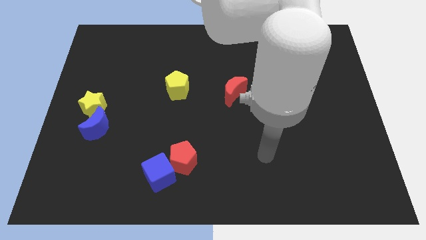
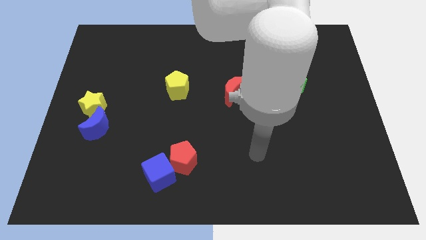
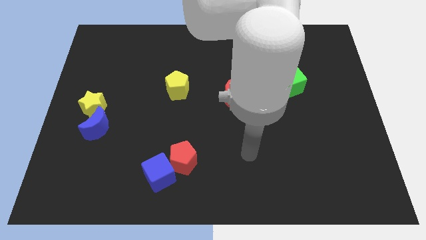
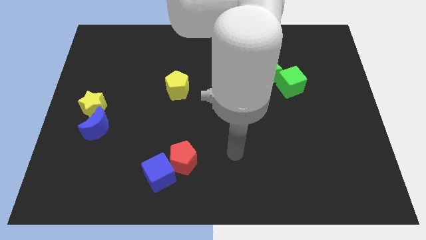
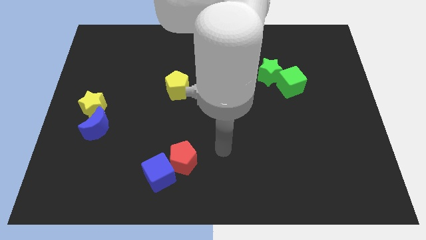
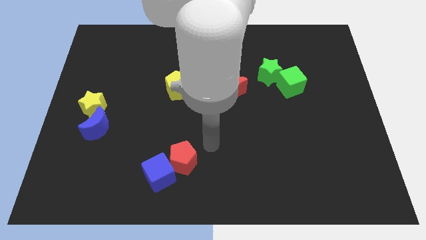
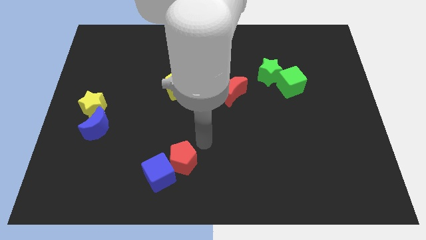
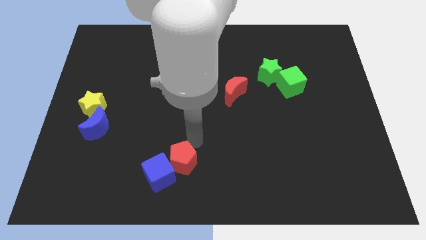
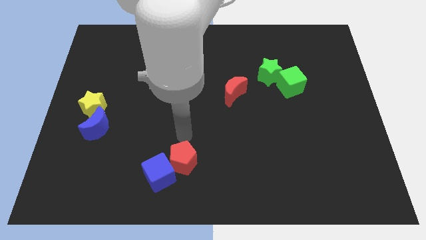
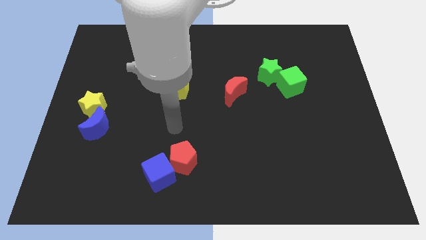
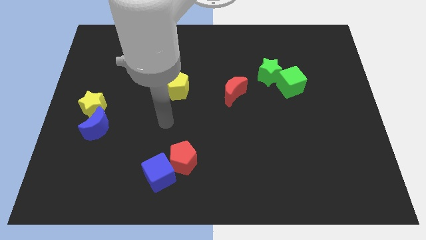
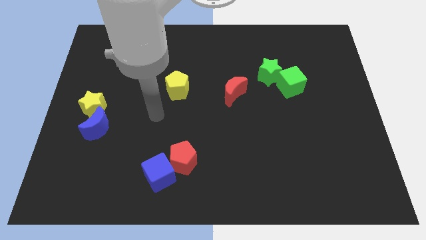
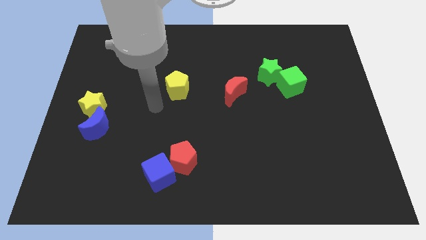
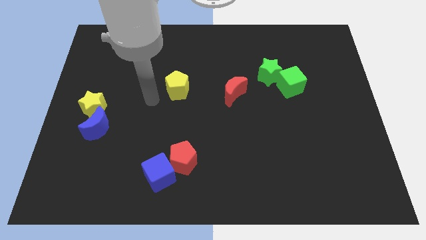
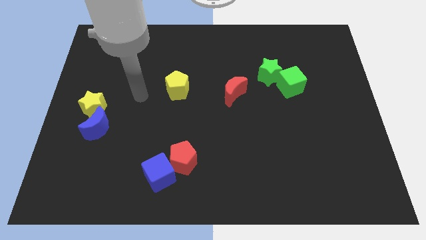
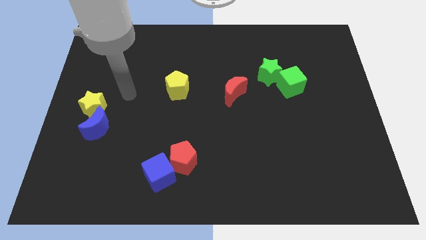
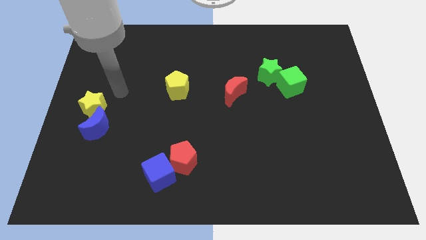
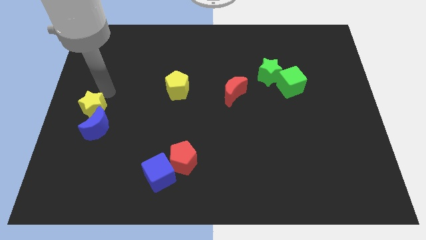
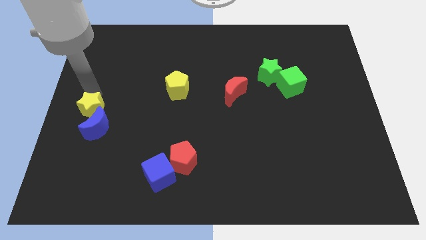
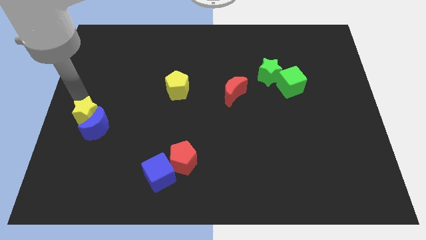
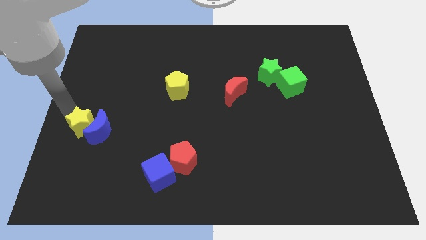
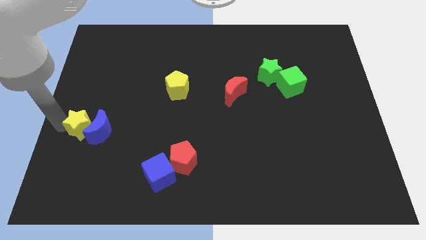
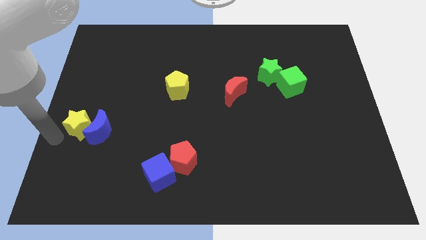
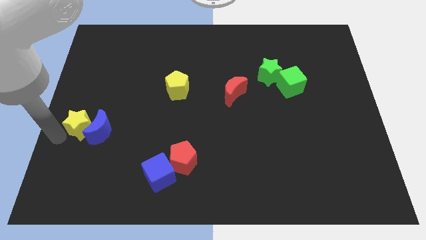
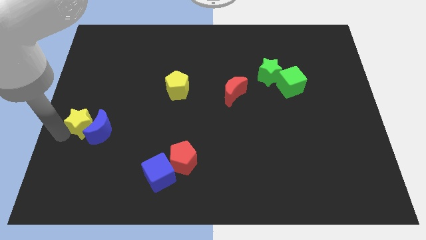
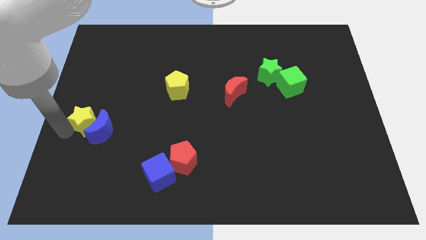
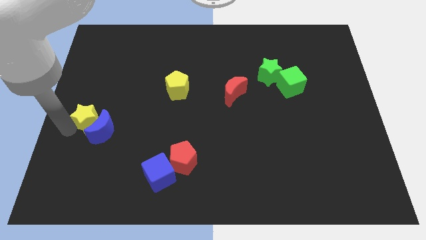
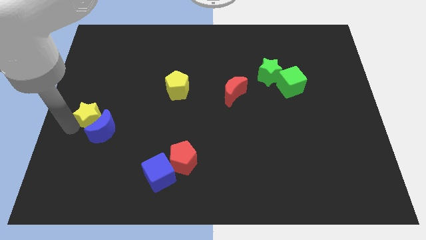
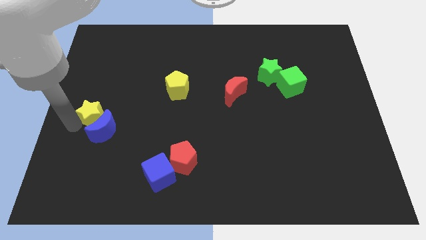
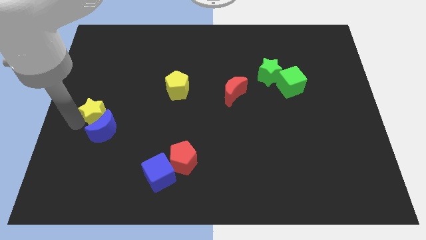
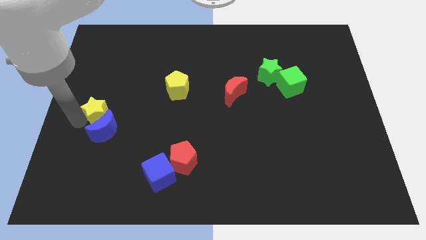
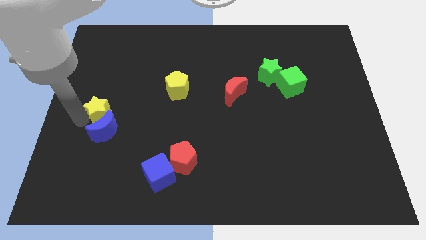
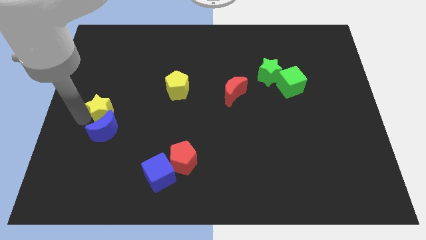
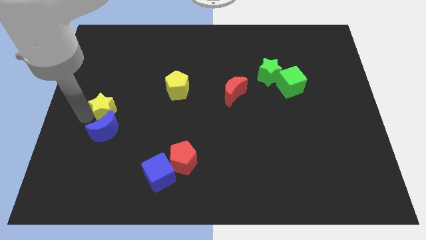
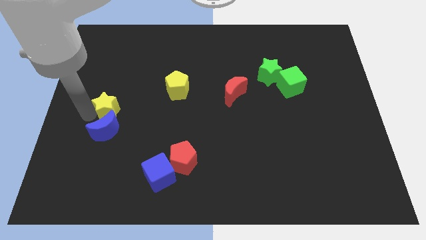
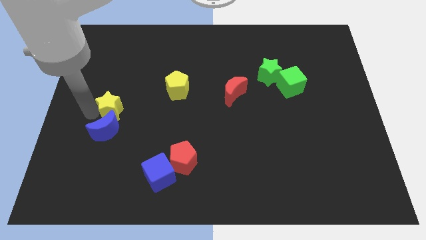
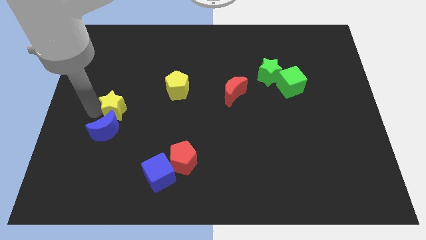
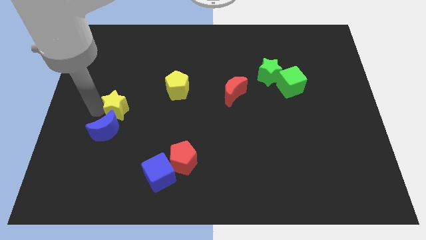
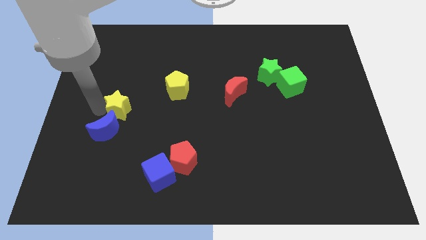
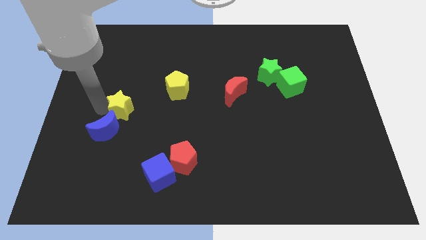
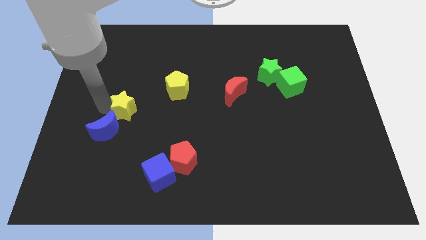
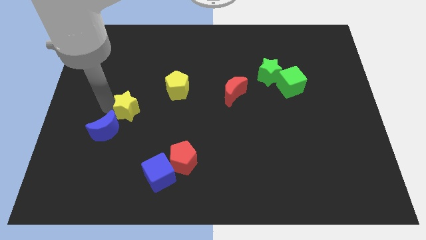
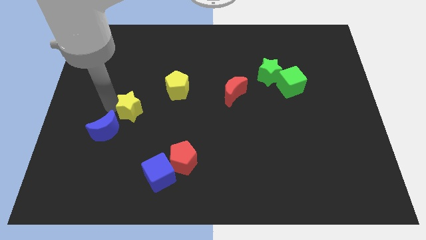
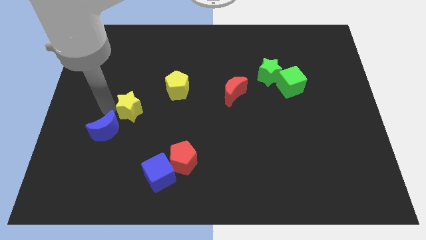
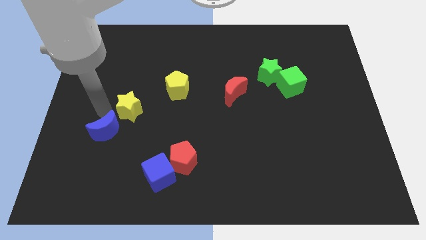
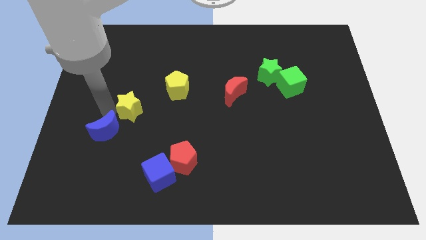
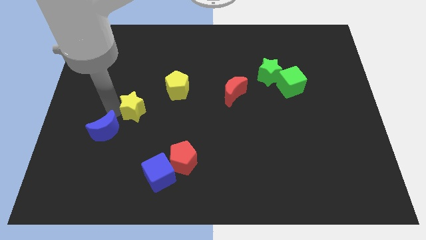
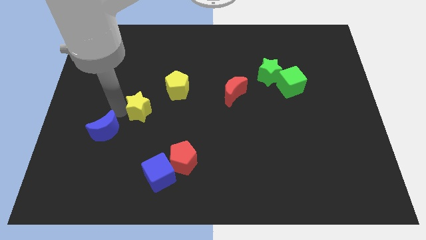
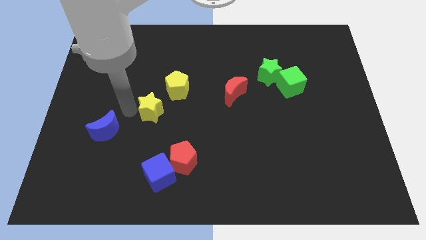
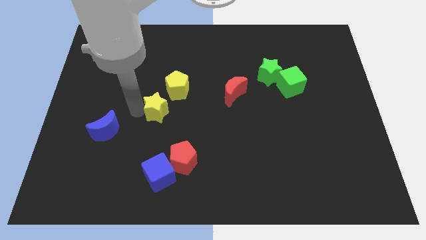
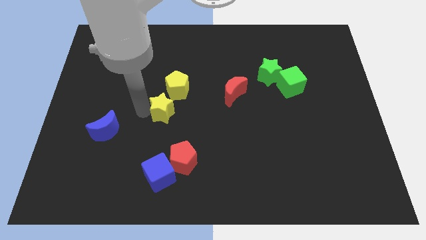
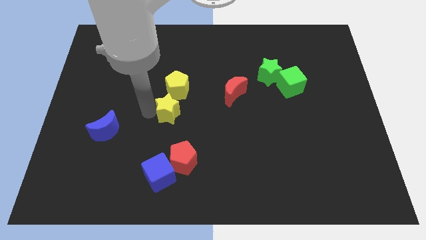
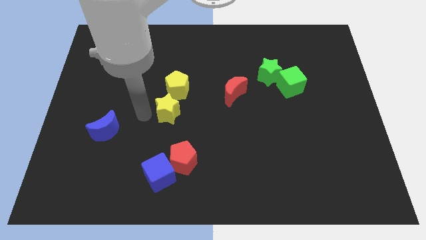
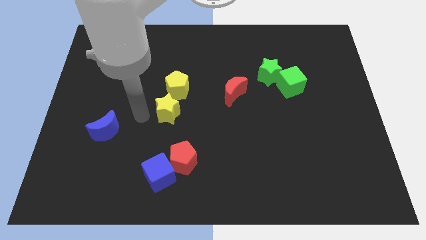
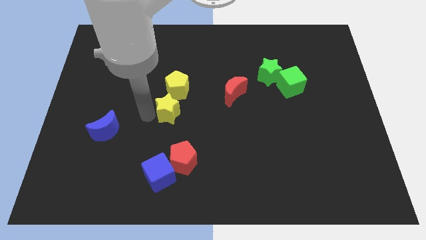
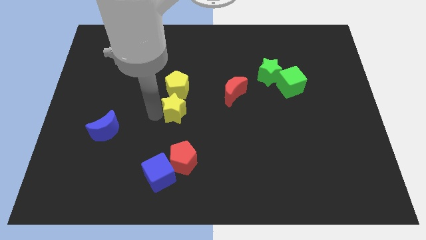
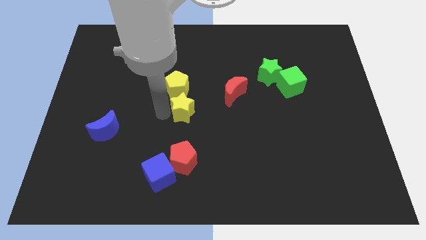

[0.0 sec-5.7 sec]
move the yellow star right

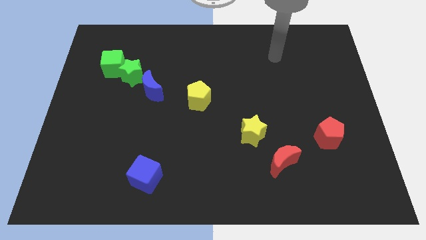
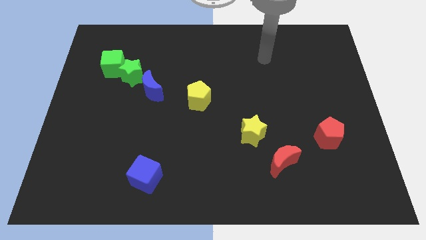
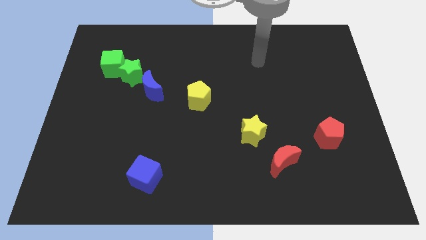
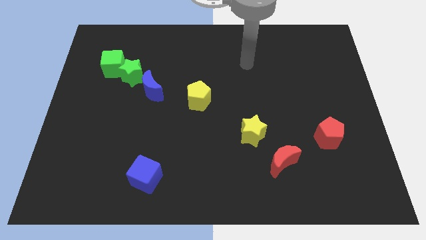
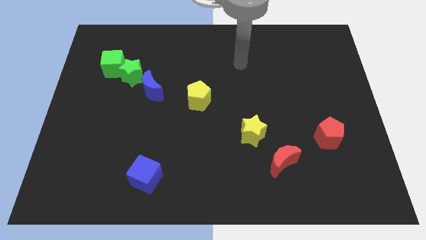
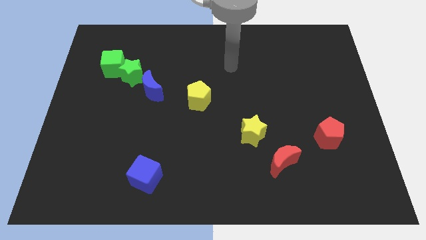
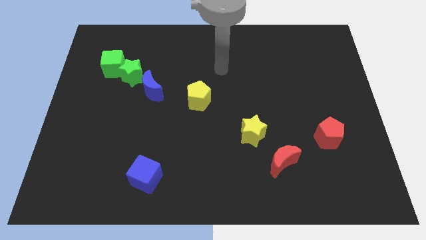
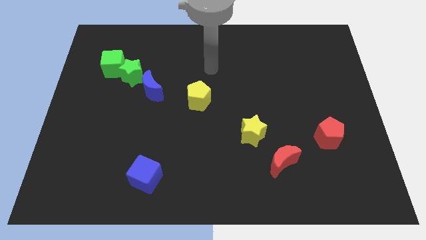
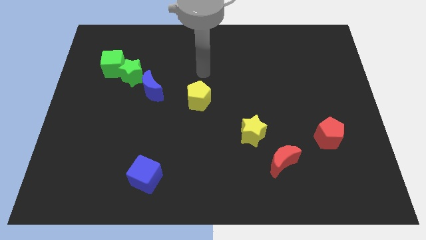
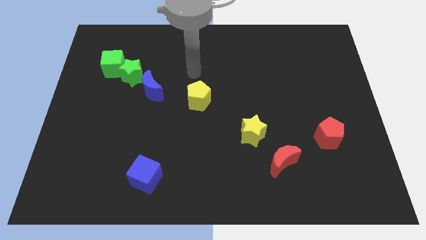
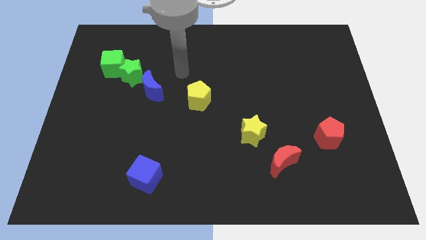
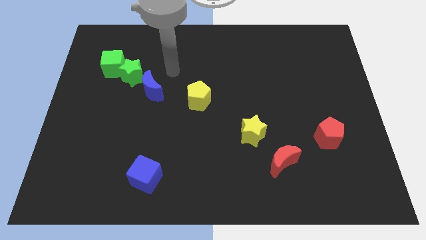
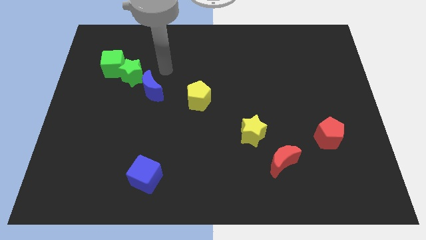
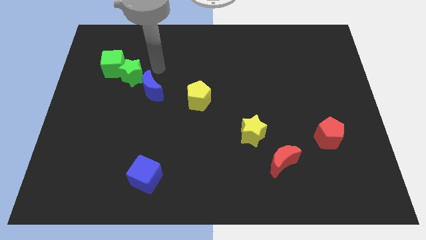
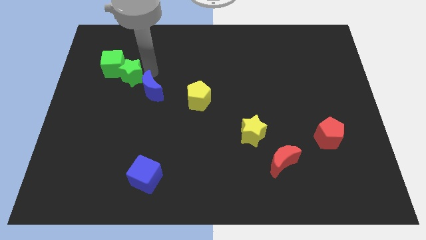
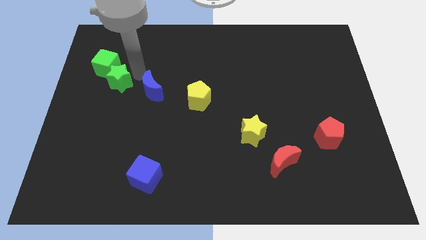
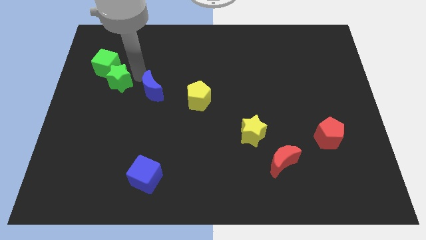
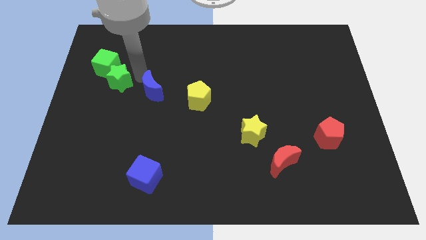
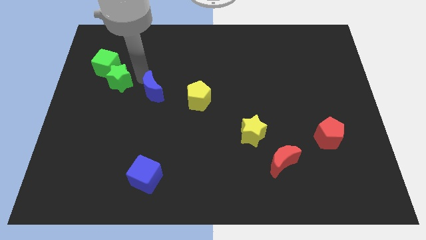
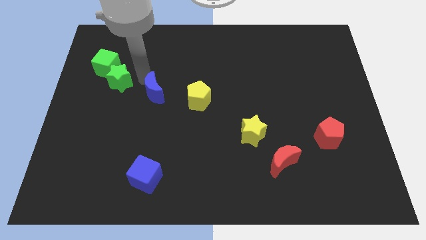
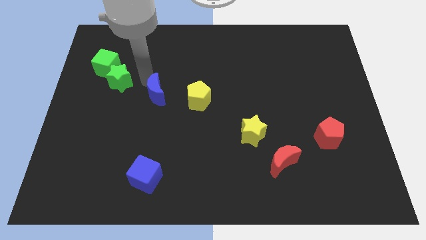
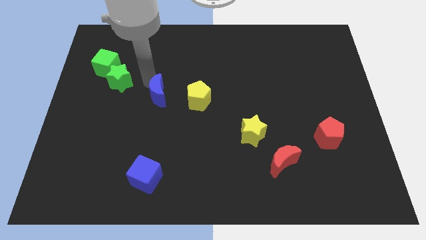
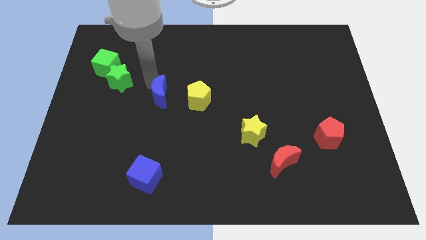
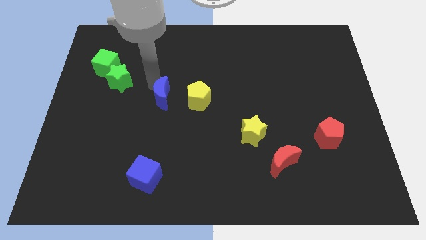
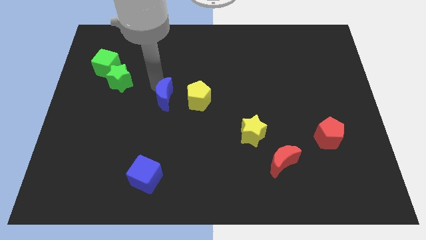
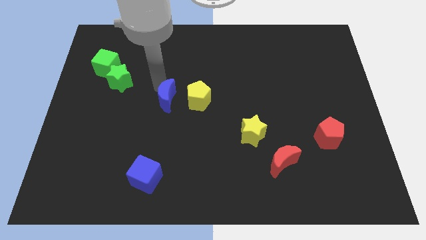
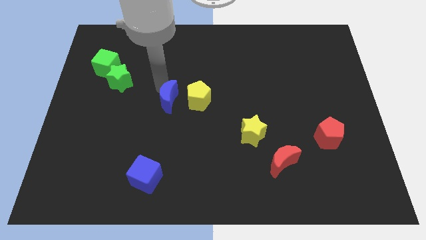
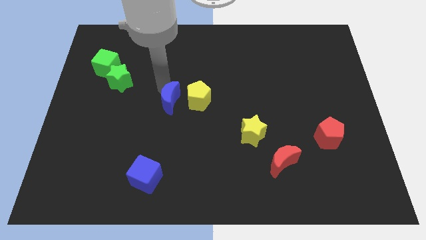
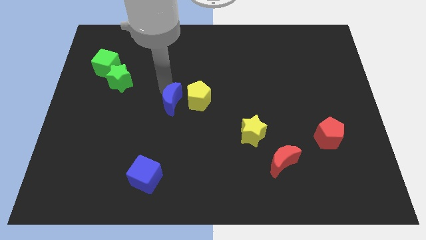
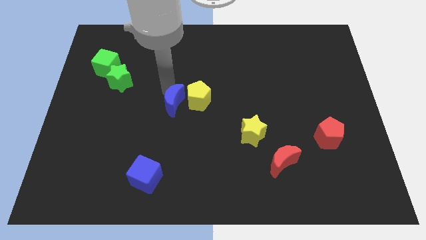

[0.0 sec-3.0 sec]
slide the blue moon down and then right slightly
